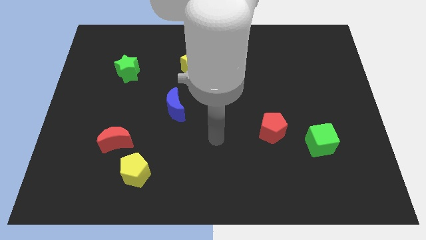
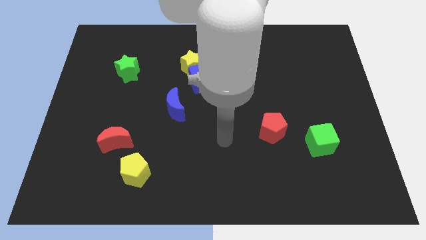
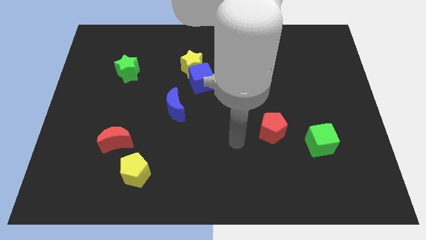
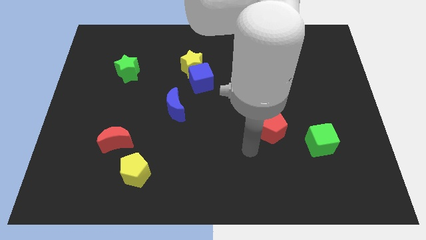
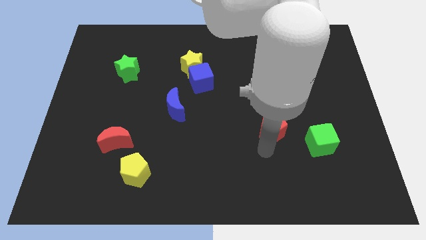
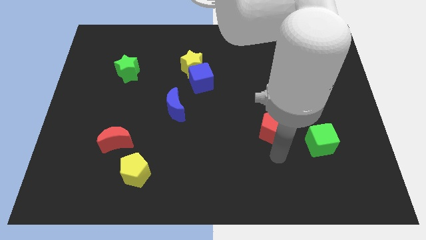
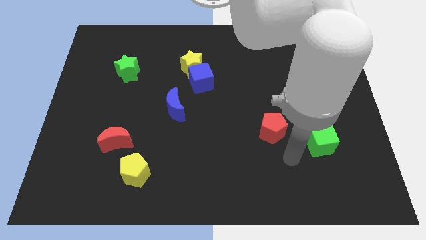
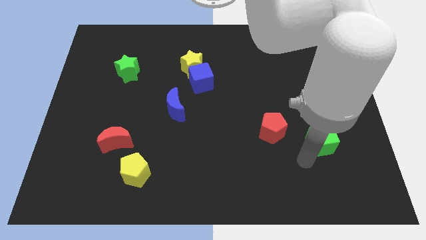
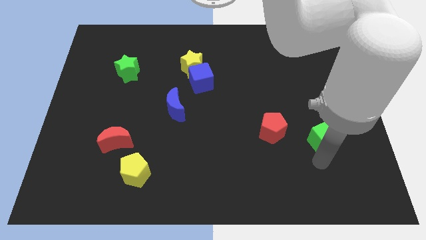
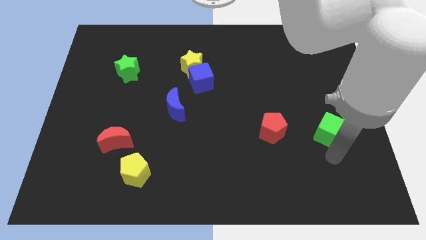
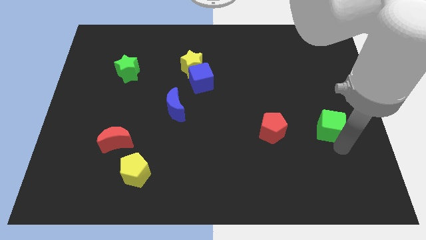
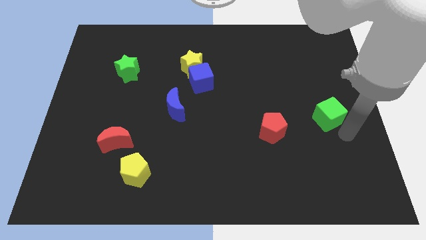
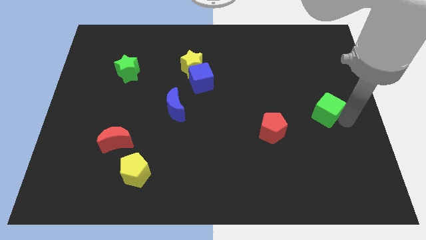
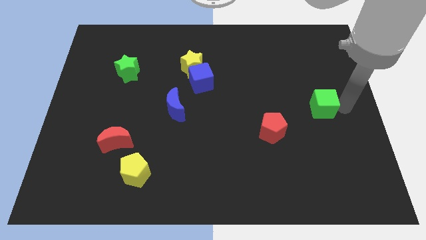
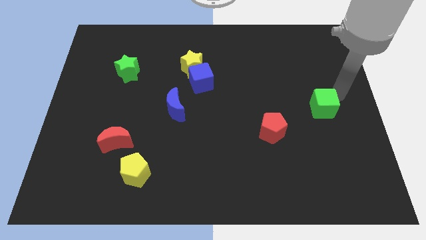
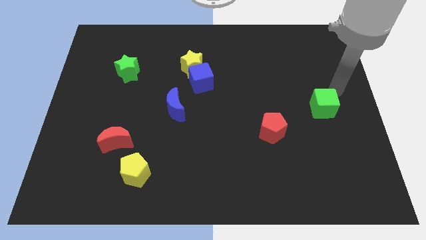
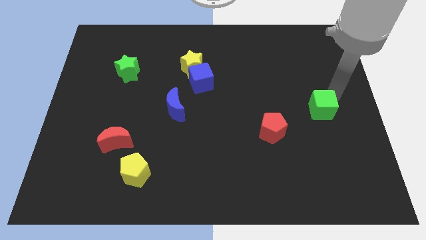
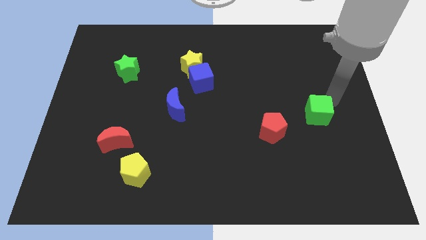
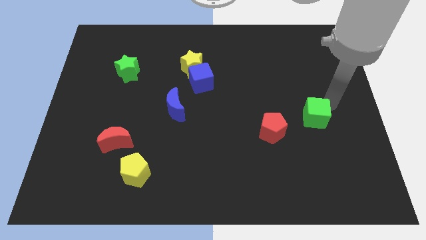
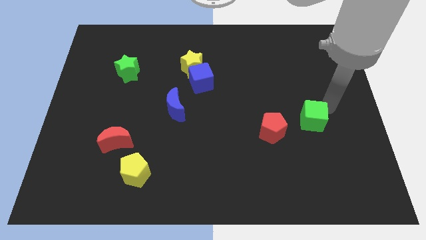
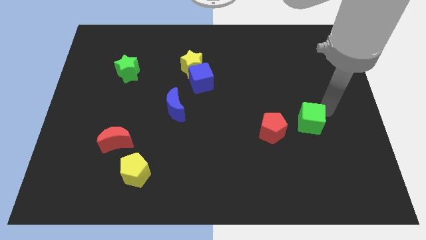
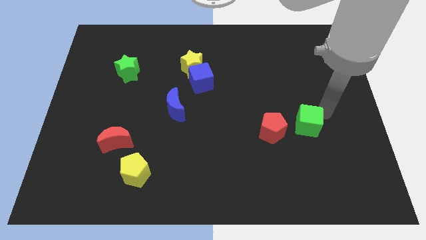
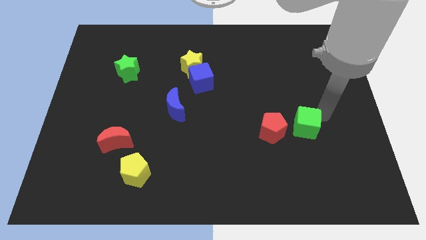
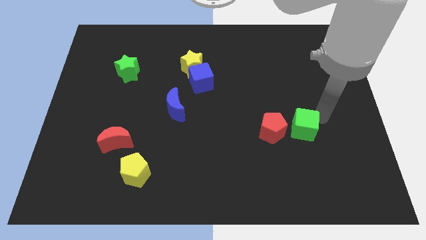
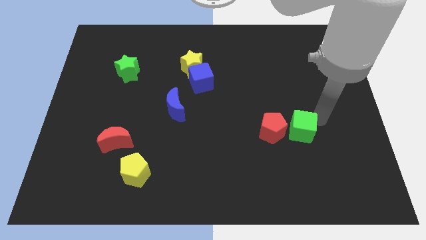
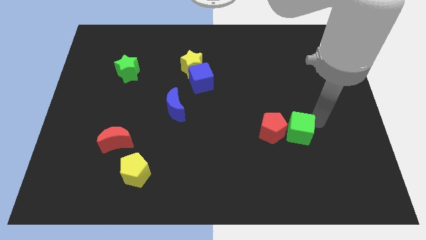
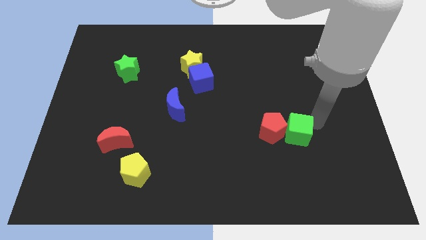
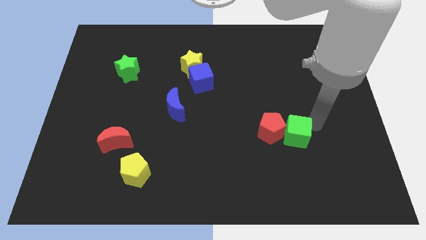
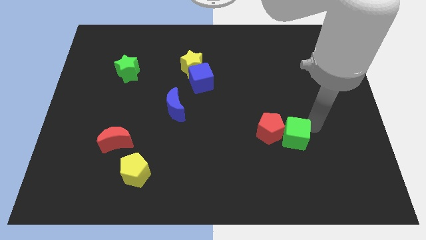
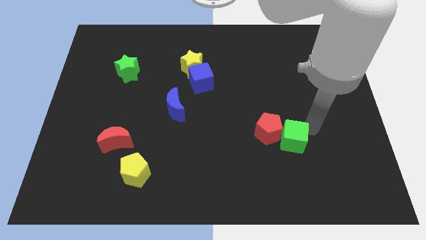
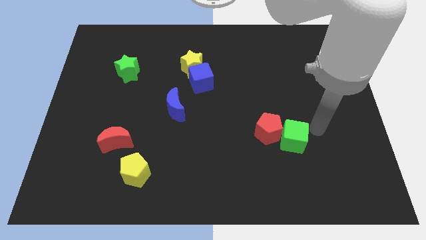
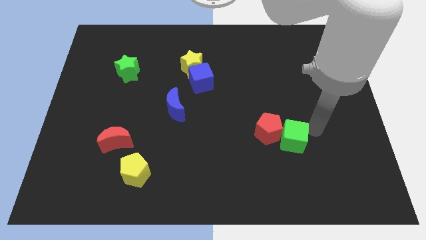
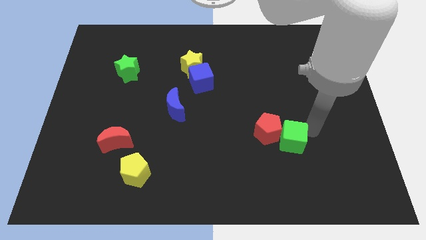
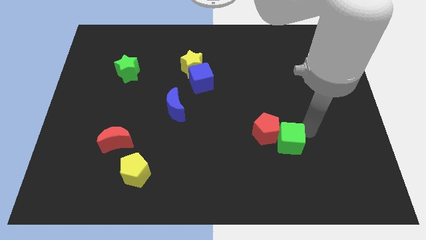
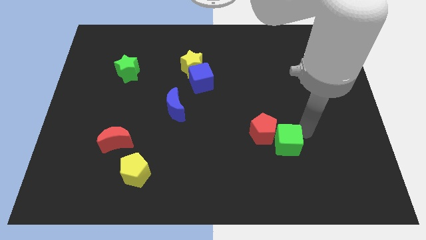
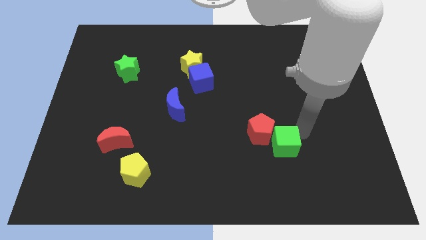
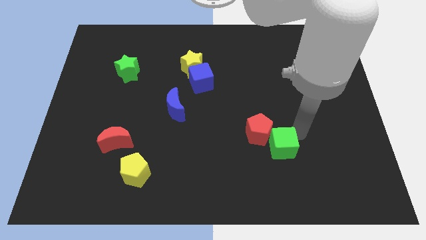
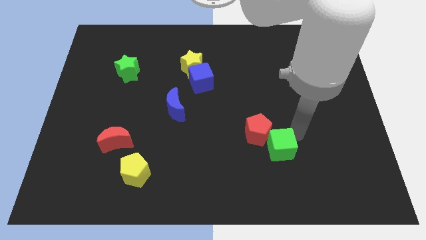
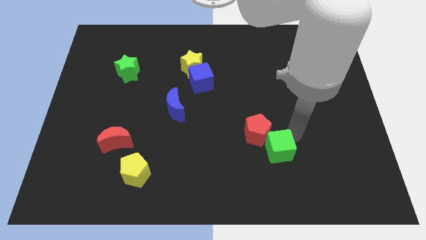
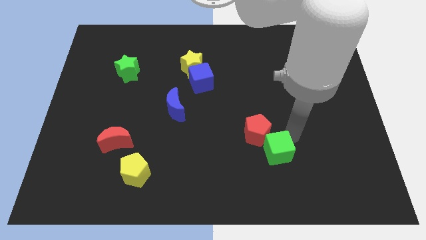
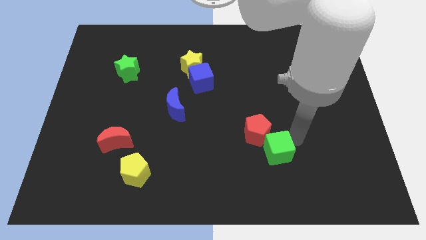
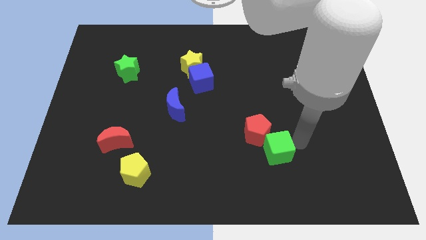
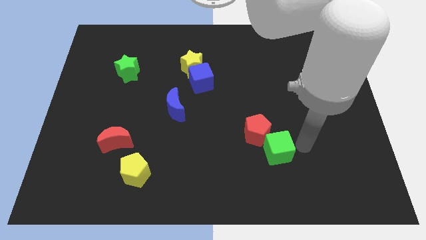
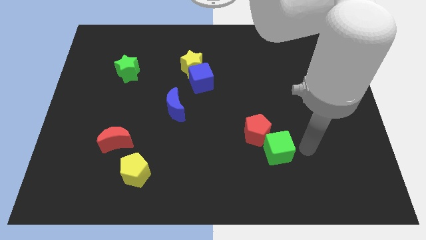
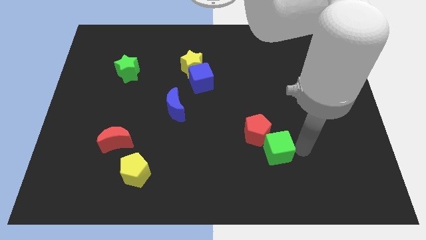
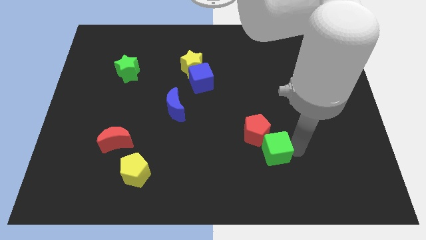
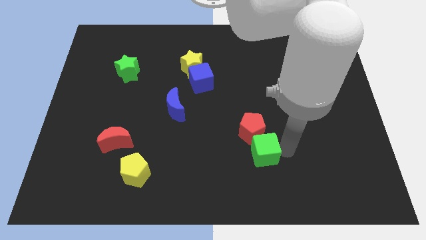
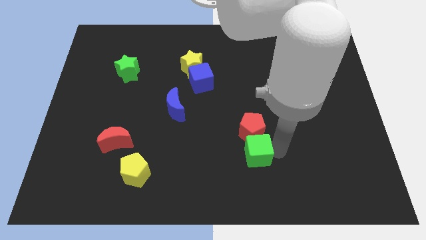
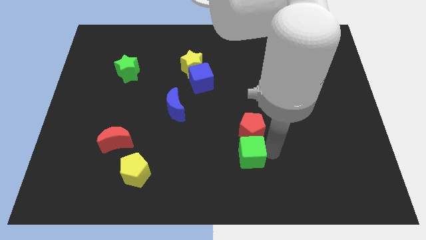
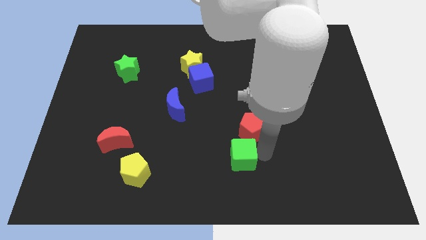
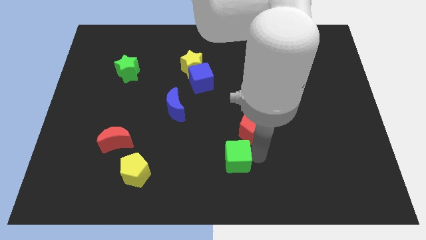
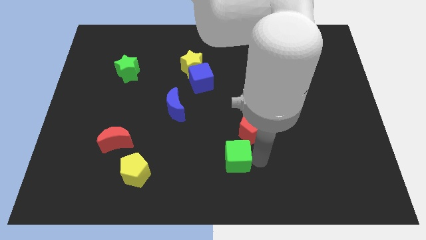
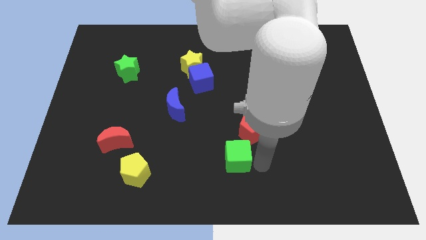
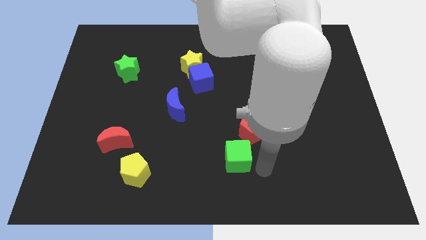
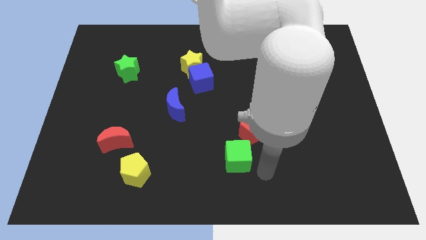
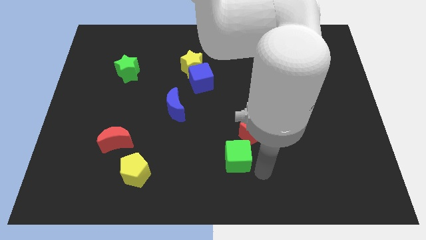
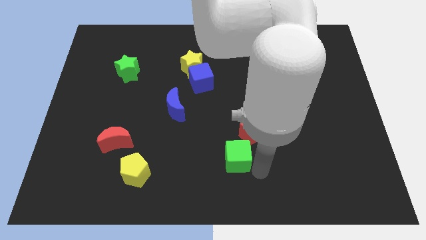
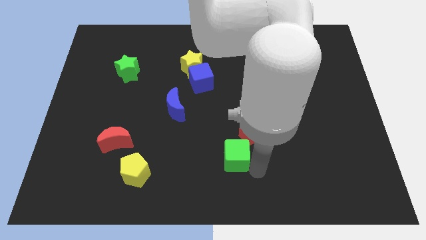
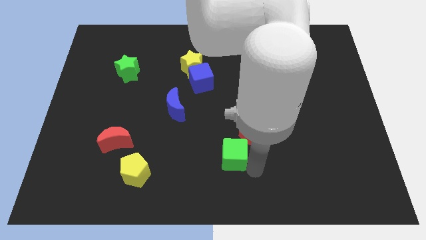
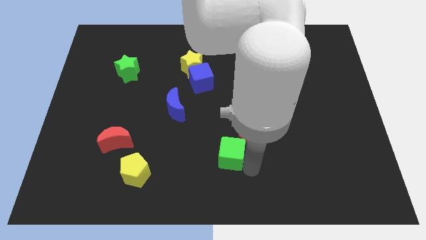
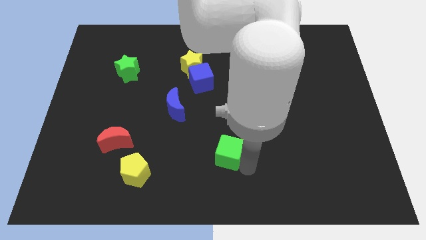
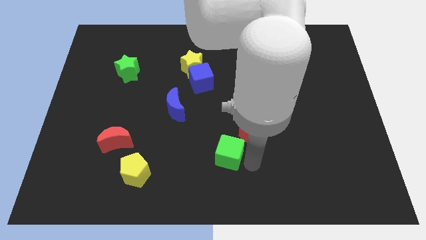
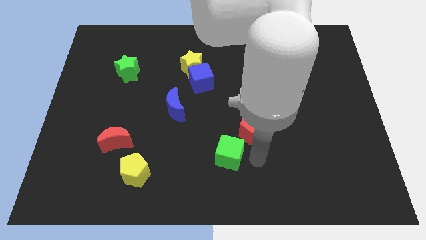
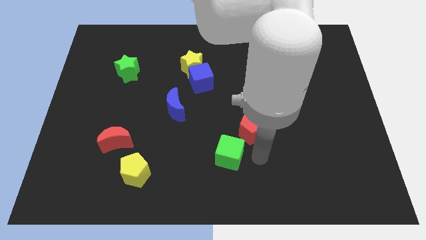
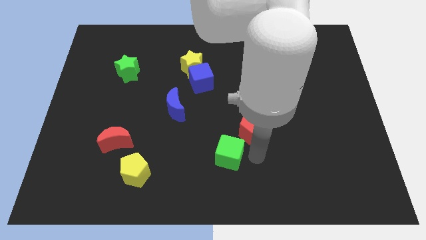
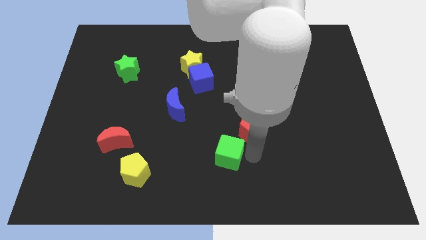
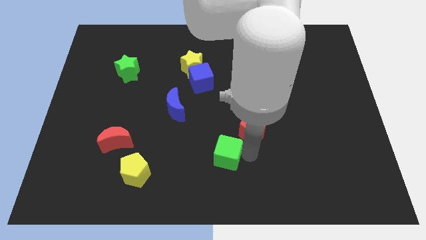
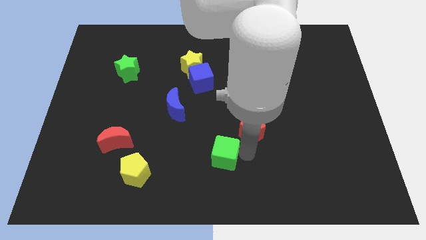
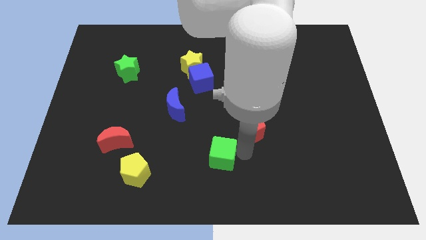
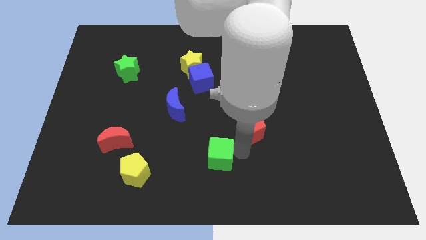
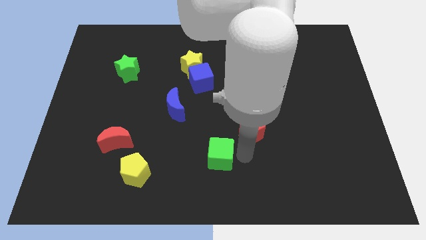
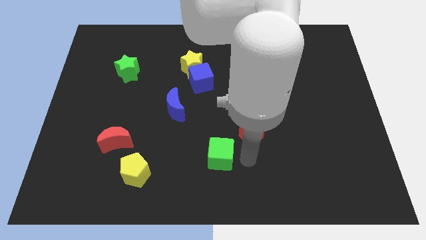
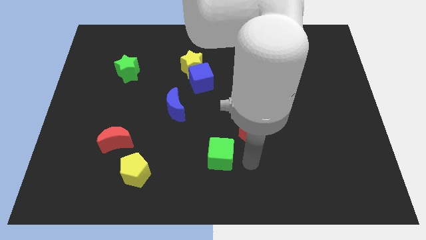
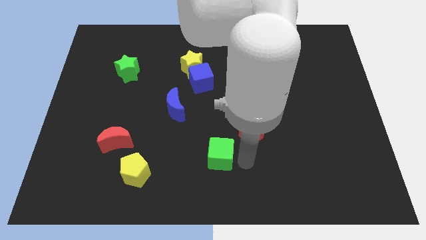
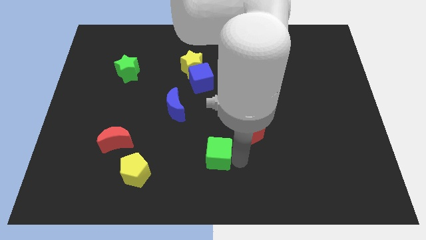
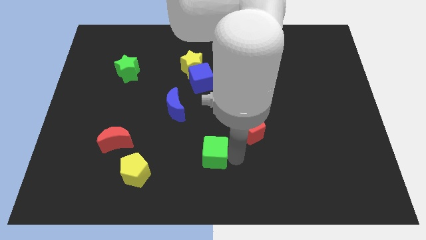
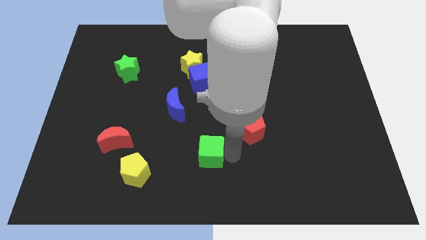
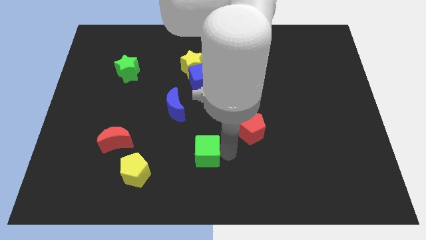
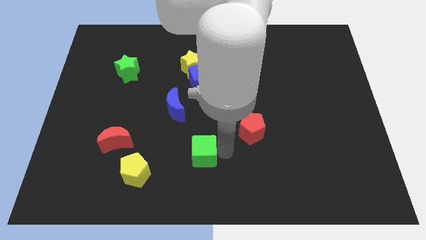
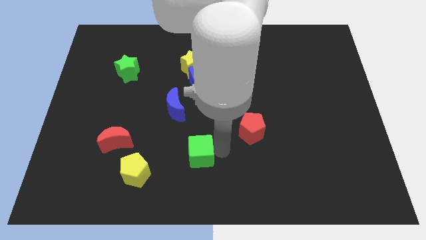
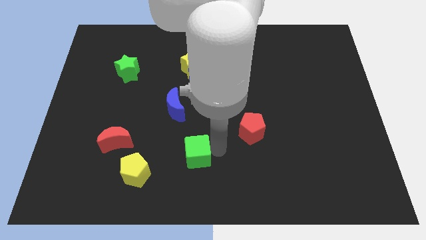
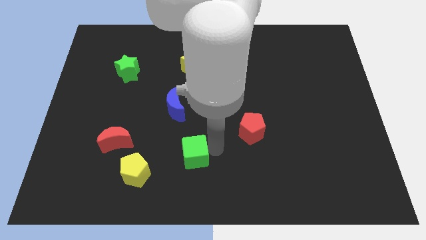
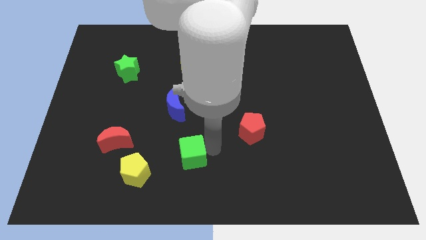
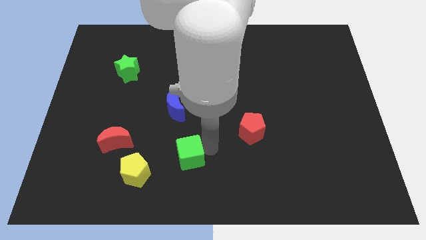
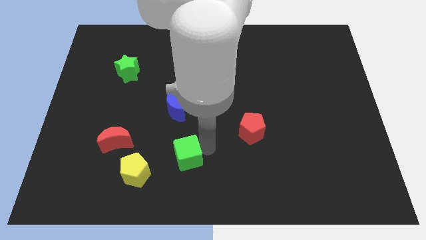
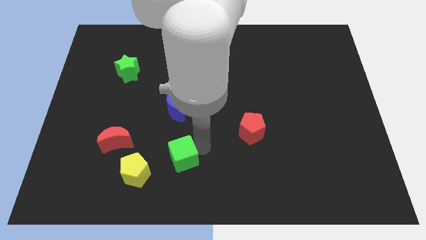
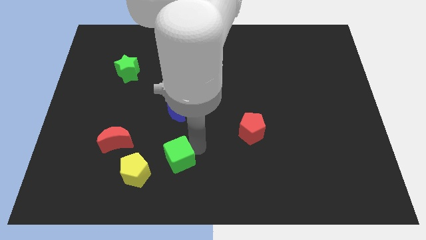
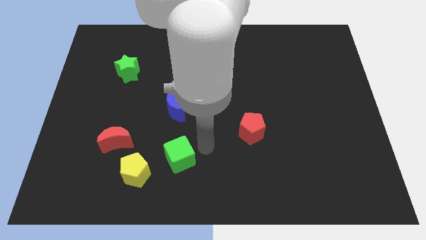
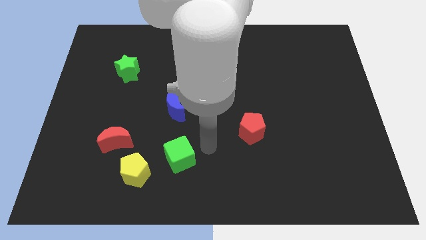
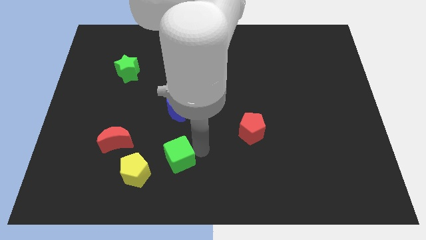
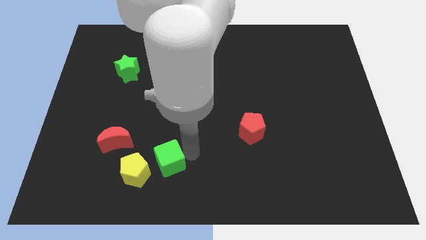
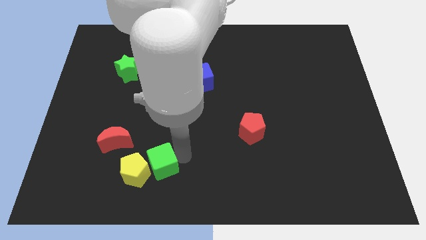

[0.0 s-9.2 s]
put the green cube close to the yellow pentagon
